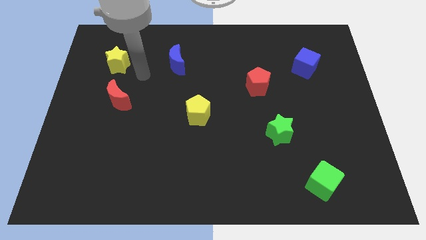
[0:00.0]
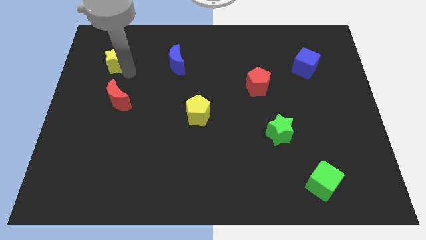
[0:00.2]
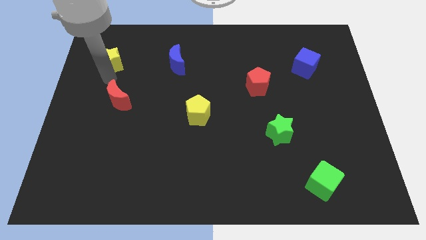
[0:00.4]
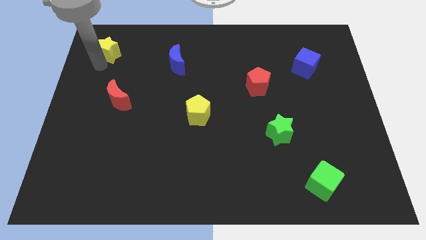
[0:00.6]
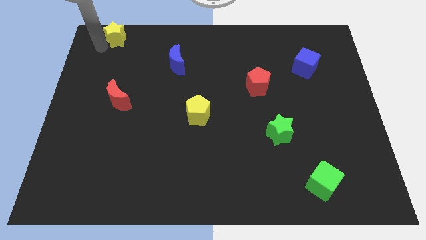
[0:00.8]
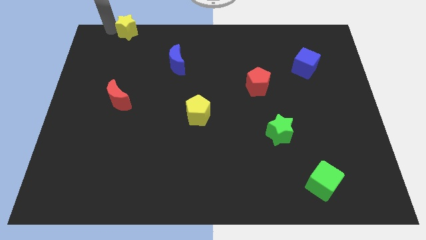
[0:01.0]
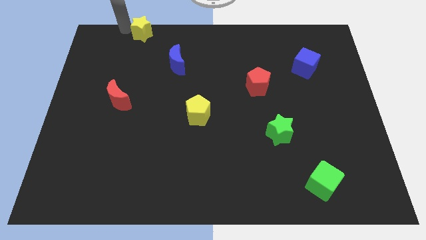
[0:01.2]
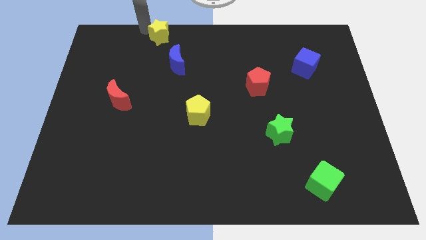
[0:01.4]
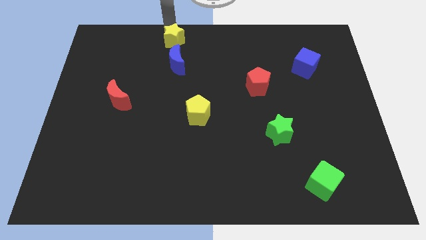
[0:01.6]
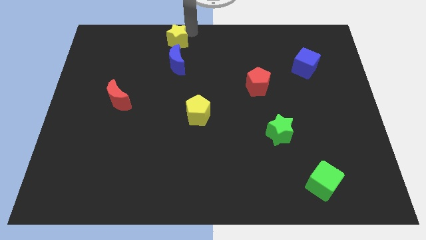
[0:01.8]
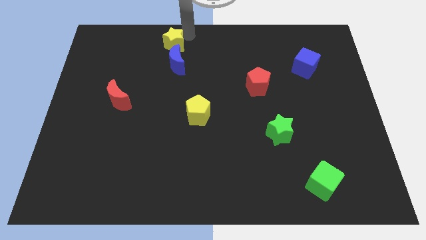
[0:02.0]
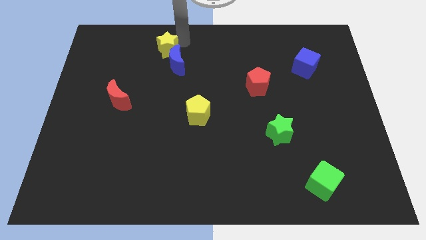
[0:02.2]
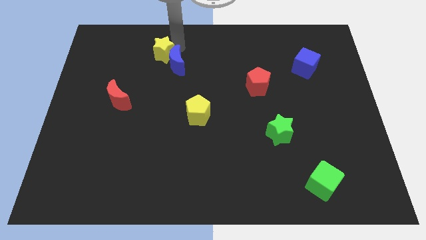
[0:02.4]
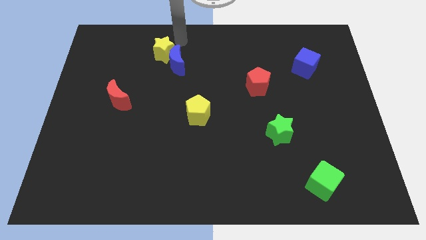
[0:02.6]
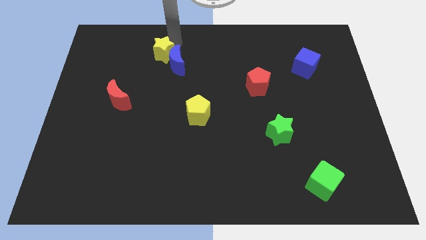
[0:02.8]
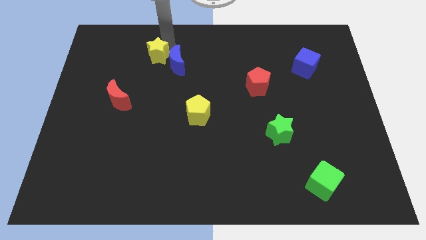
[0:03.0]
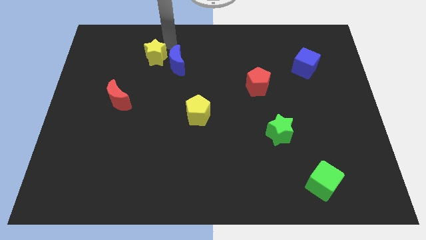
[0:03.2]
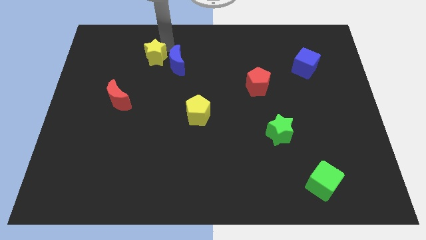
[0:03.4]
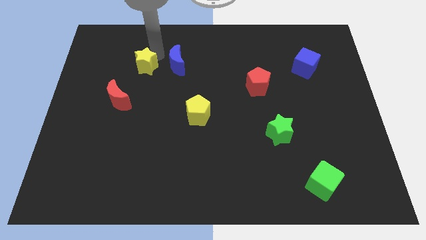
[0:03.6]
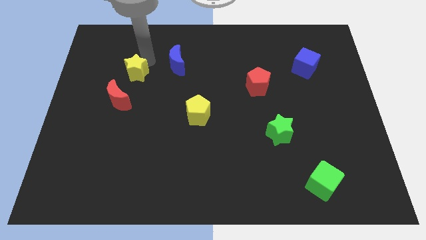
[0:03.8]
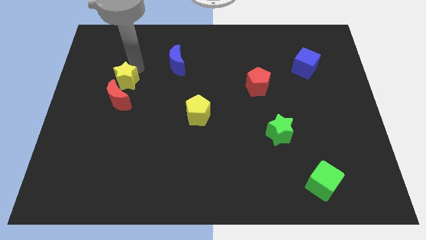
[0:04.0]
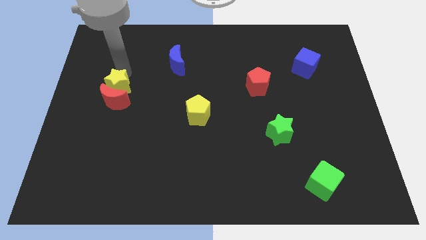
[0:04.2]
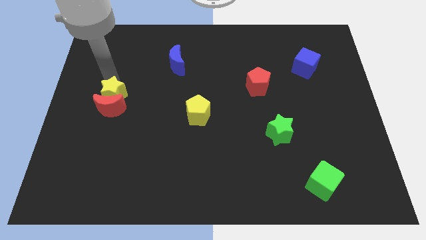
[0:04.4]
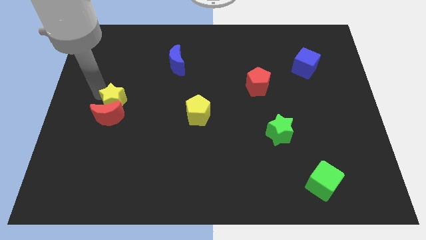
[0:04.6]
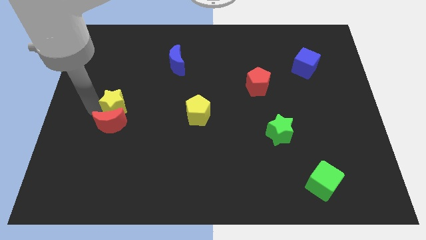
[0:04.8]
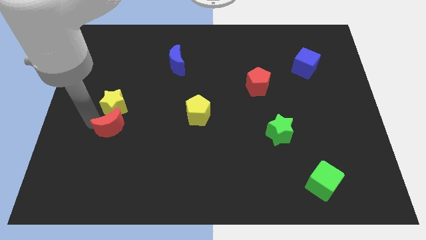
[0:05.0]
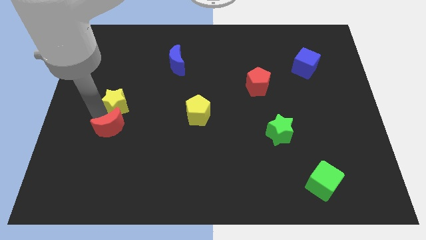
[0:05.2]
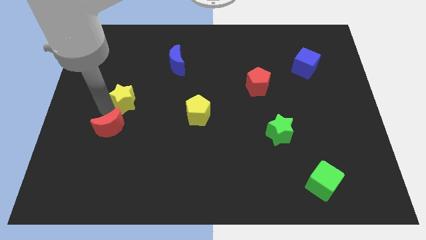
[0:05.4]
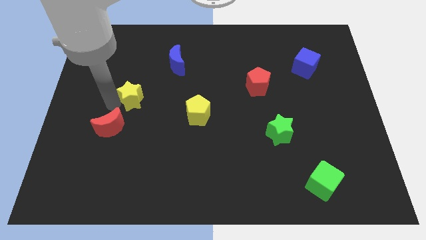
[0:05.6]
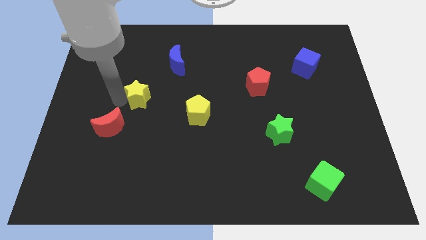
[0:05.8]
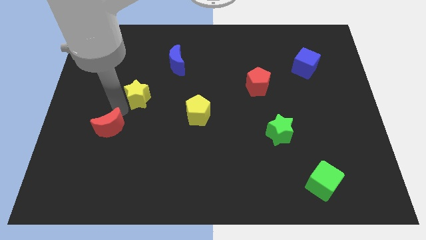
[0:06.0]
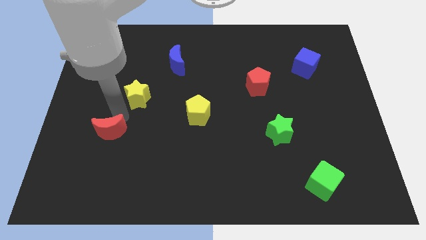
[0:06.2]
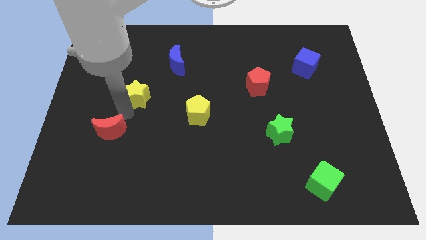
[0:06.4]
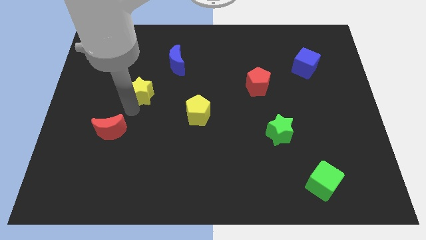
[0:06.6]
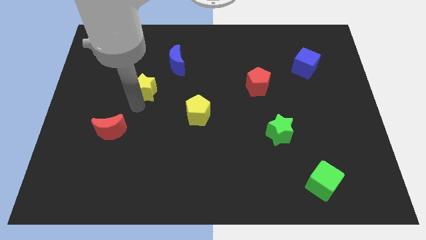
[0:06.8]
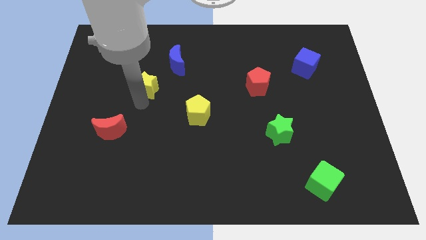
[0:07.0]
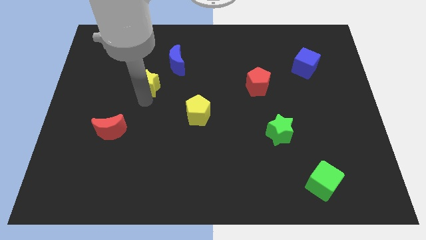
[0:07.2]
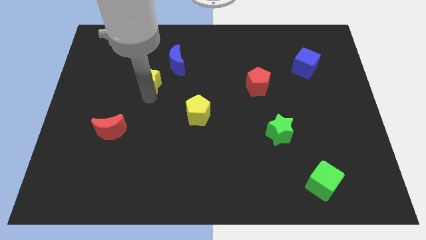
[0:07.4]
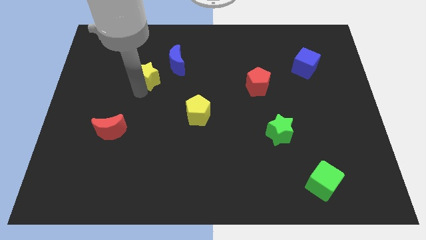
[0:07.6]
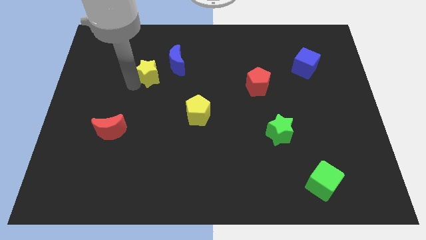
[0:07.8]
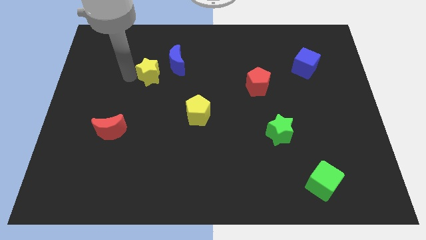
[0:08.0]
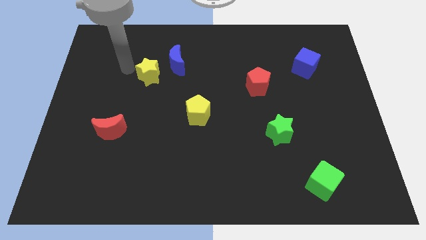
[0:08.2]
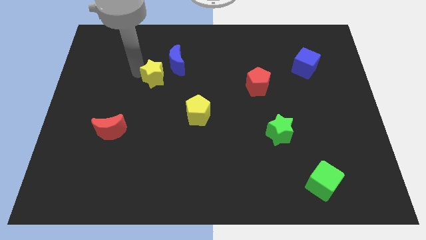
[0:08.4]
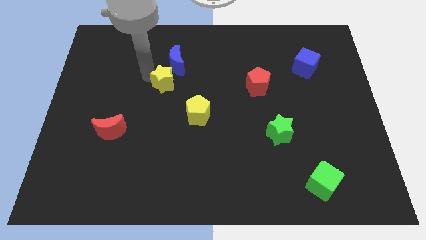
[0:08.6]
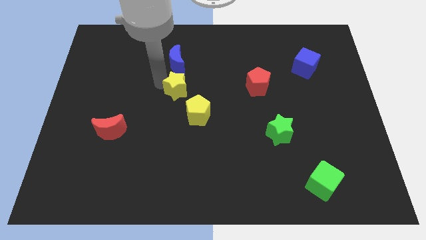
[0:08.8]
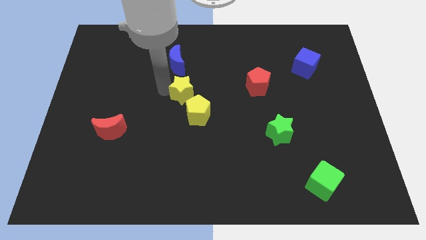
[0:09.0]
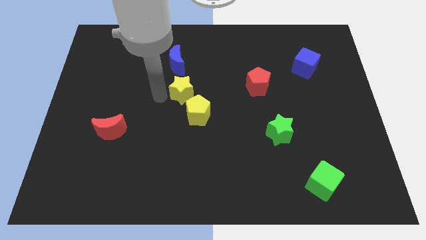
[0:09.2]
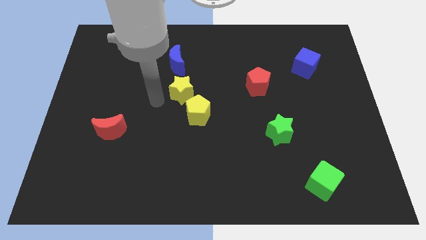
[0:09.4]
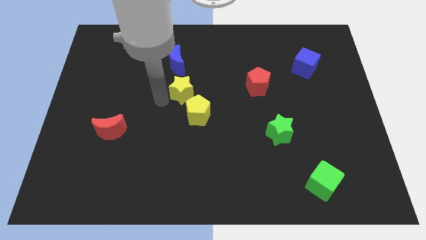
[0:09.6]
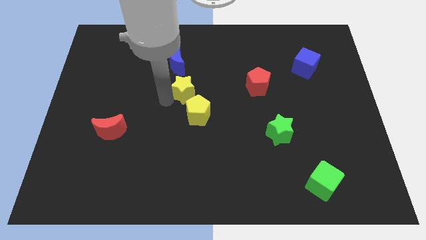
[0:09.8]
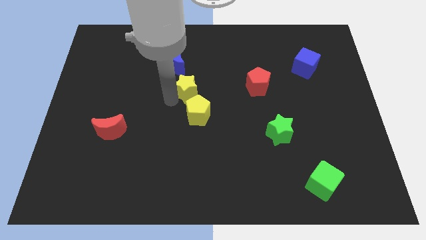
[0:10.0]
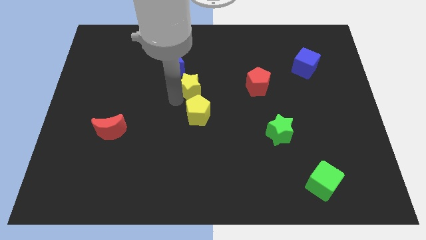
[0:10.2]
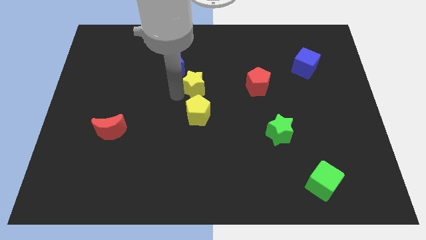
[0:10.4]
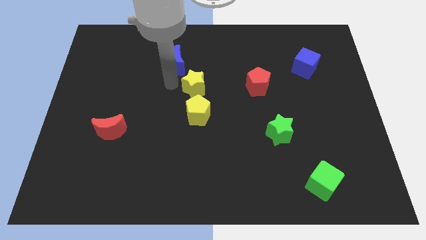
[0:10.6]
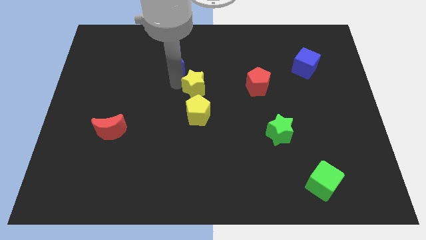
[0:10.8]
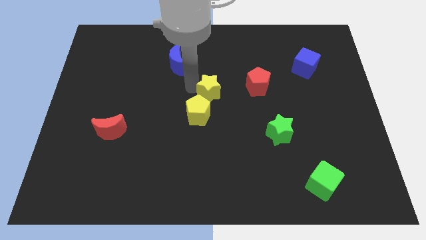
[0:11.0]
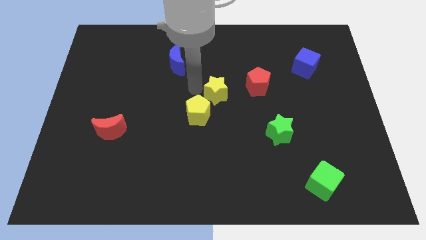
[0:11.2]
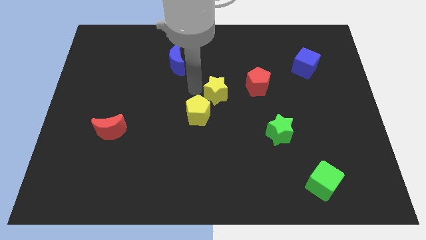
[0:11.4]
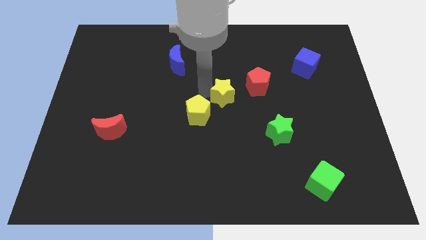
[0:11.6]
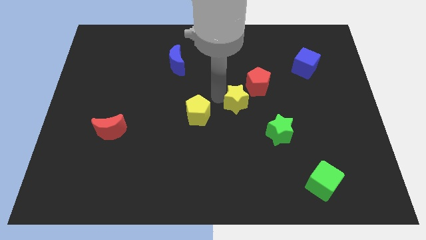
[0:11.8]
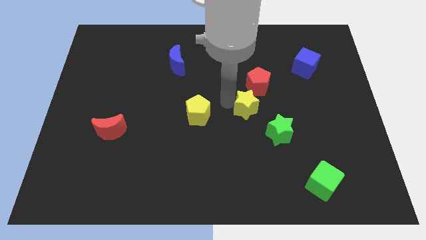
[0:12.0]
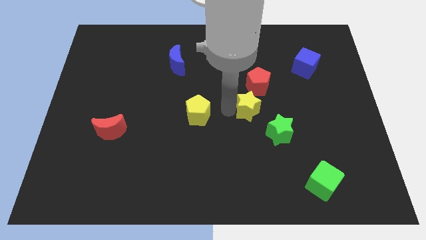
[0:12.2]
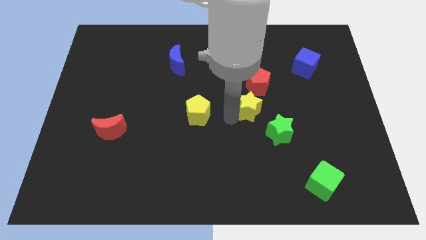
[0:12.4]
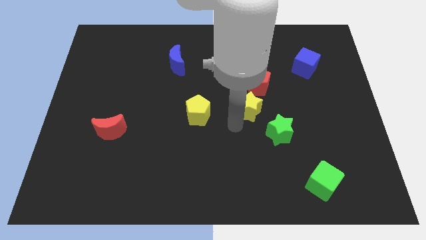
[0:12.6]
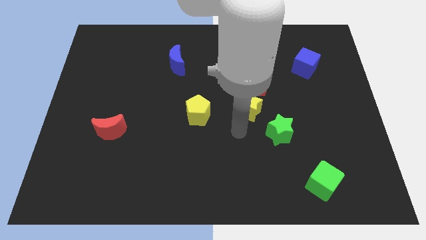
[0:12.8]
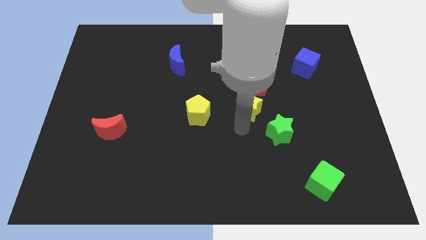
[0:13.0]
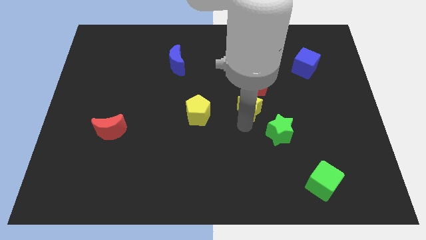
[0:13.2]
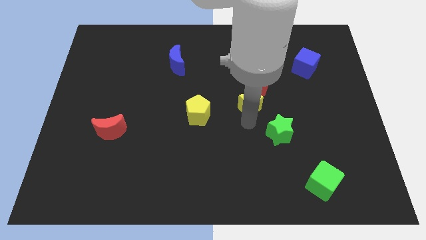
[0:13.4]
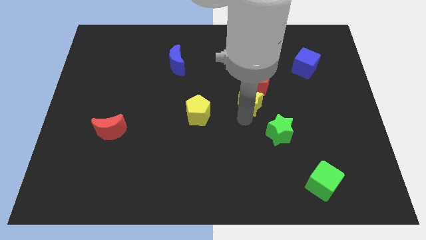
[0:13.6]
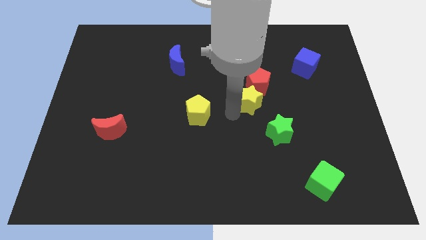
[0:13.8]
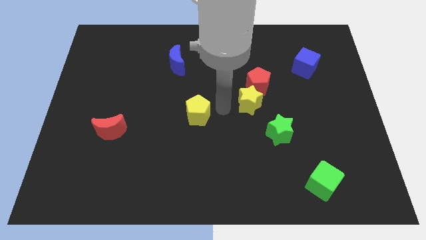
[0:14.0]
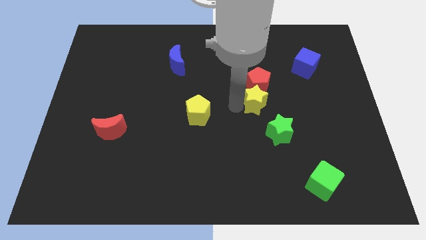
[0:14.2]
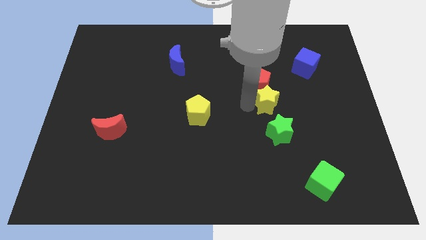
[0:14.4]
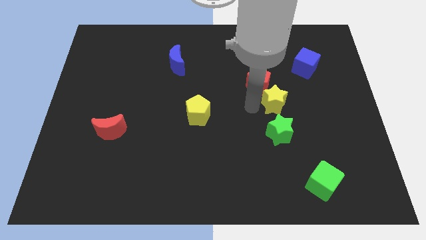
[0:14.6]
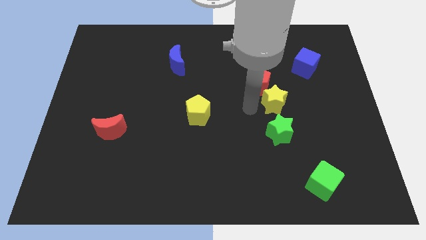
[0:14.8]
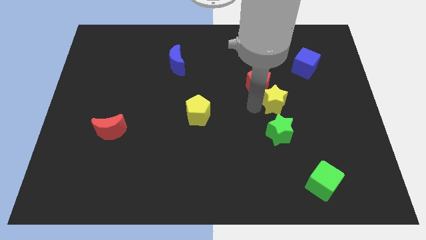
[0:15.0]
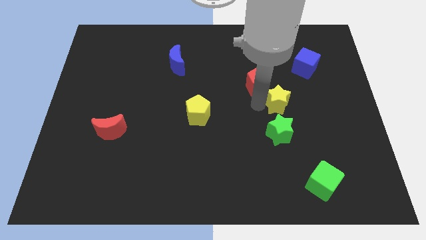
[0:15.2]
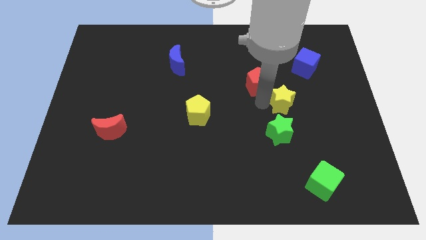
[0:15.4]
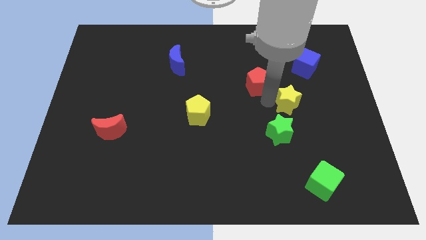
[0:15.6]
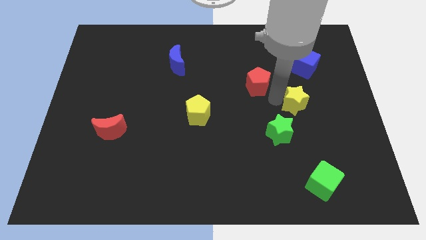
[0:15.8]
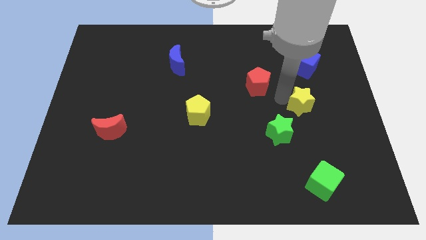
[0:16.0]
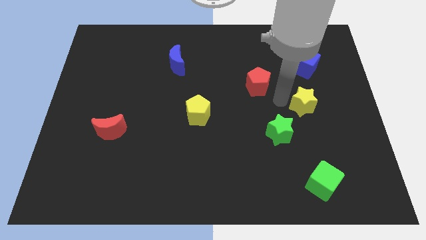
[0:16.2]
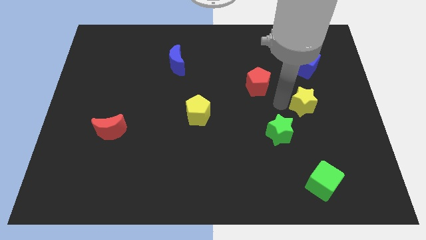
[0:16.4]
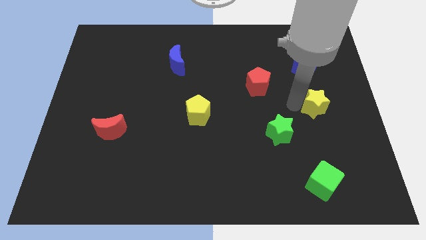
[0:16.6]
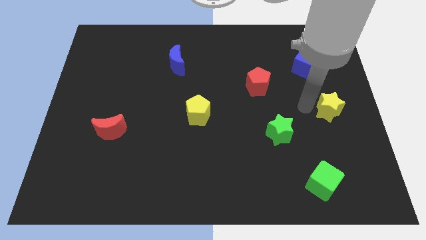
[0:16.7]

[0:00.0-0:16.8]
put the yellow star to the right side of the board
